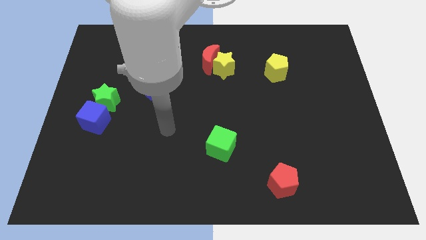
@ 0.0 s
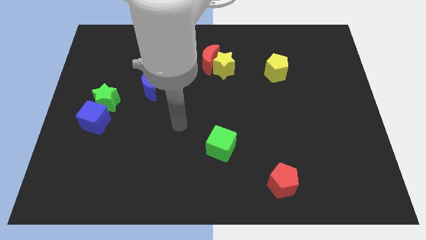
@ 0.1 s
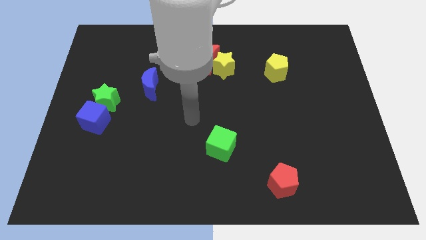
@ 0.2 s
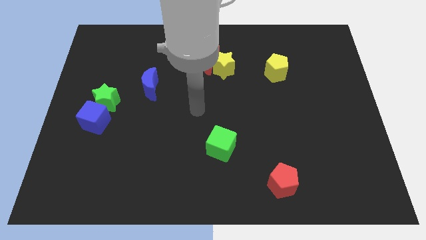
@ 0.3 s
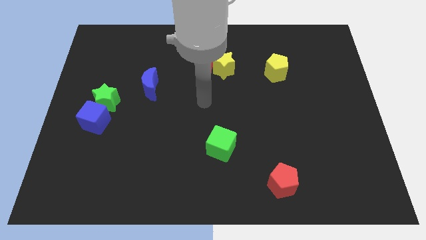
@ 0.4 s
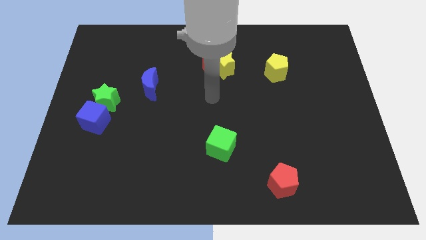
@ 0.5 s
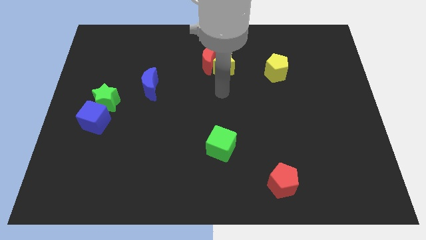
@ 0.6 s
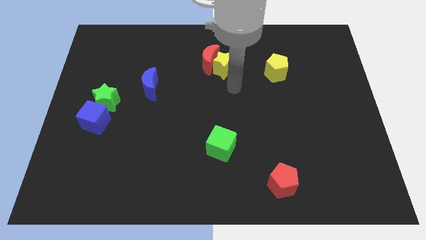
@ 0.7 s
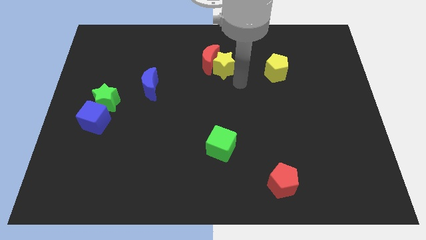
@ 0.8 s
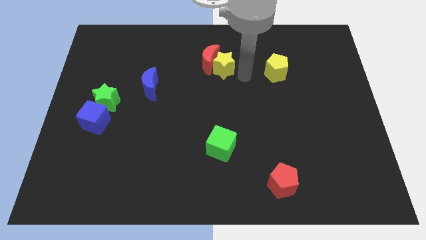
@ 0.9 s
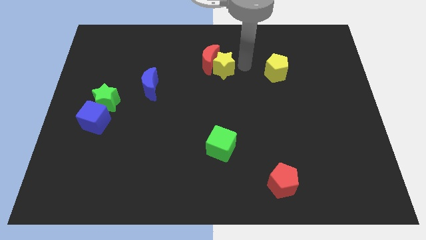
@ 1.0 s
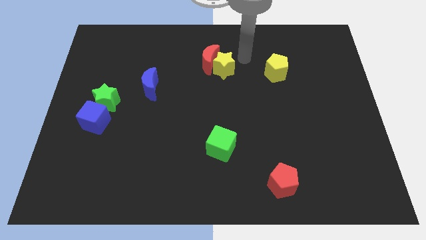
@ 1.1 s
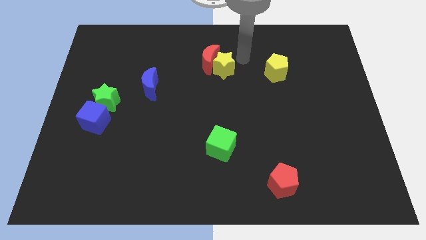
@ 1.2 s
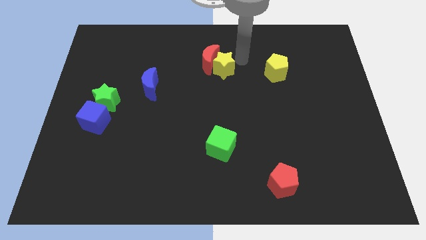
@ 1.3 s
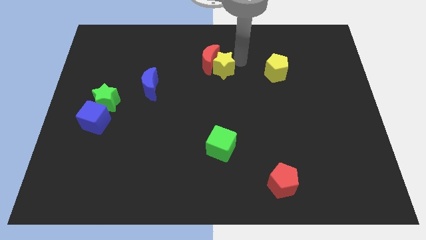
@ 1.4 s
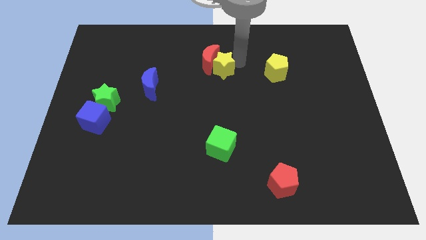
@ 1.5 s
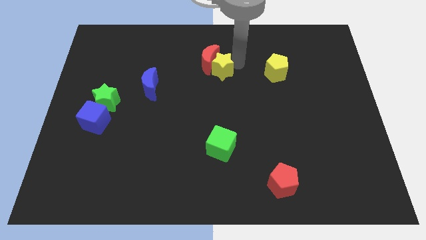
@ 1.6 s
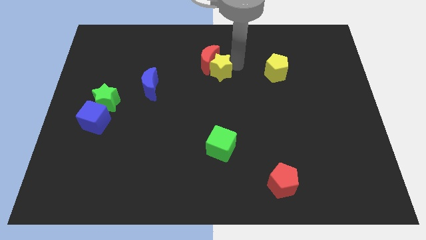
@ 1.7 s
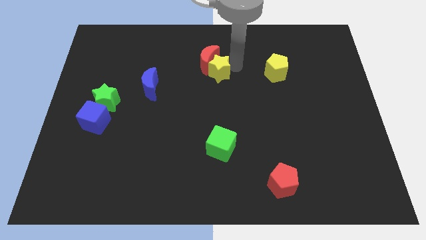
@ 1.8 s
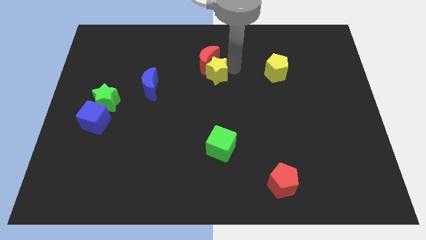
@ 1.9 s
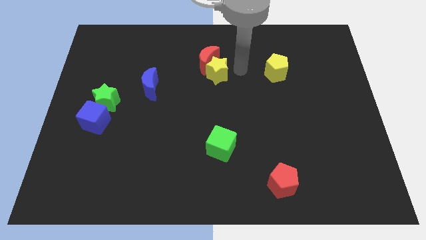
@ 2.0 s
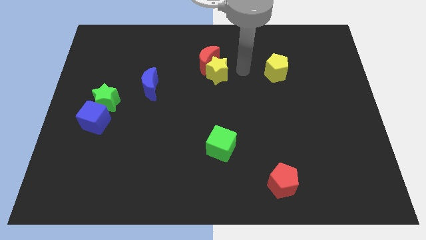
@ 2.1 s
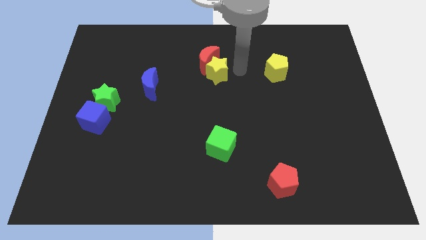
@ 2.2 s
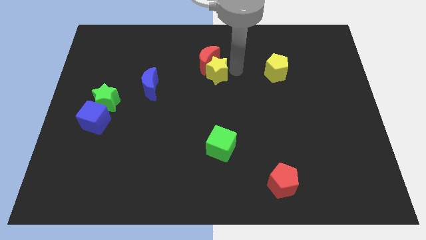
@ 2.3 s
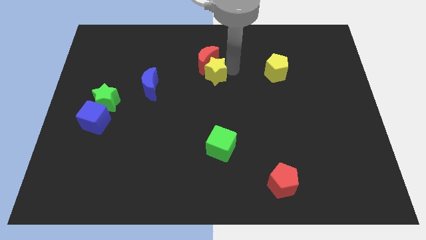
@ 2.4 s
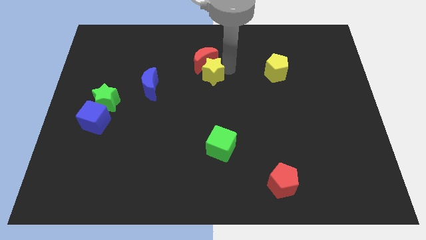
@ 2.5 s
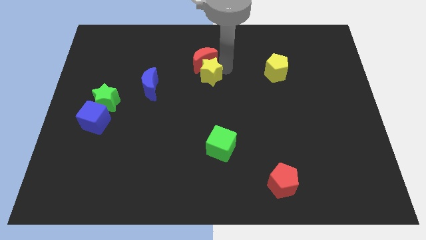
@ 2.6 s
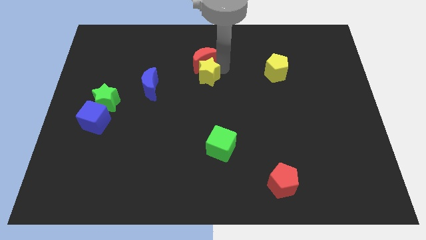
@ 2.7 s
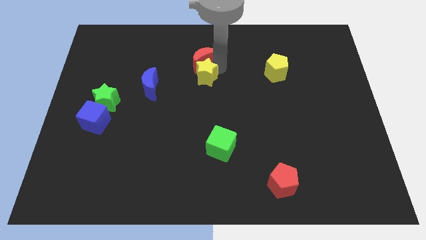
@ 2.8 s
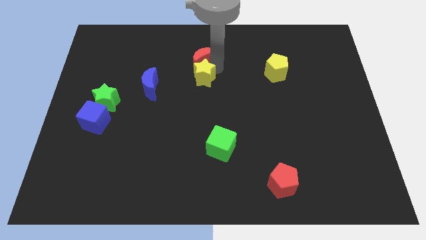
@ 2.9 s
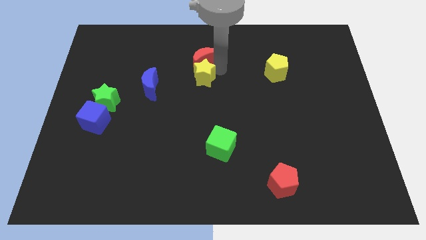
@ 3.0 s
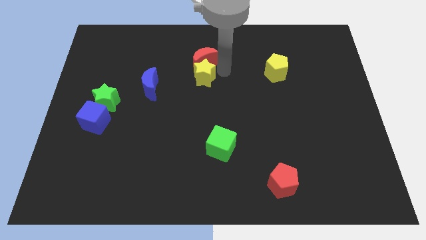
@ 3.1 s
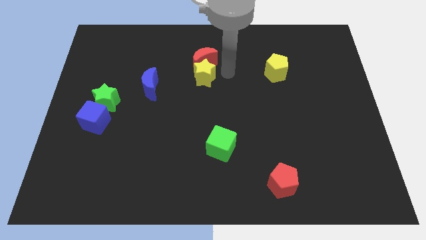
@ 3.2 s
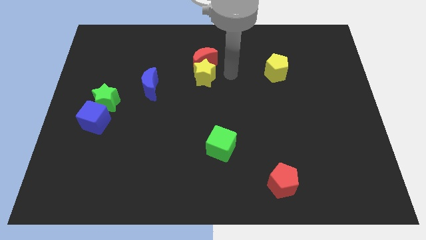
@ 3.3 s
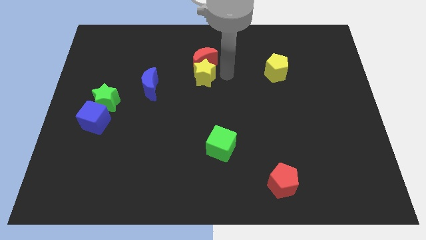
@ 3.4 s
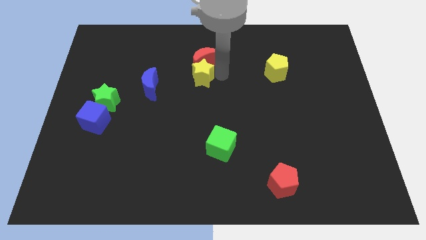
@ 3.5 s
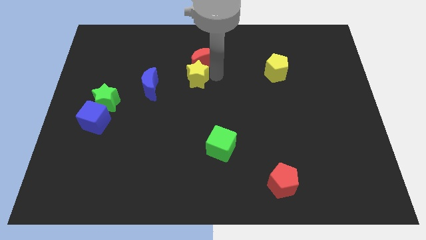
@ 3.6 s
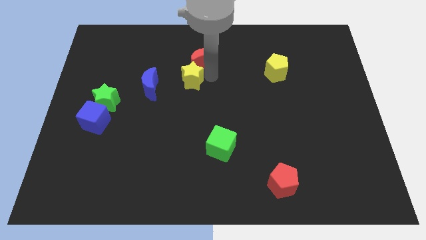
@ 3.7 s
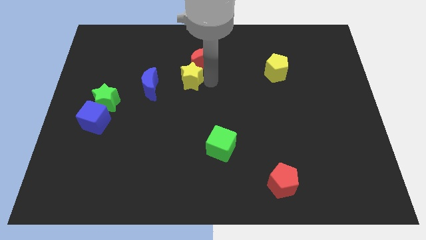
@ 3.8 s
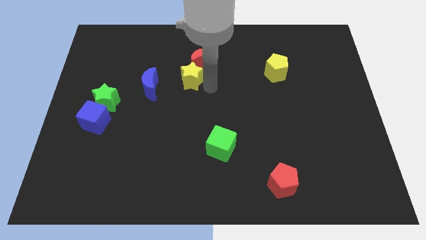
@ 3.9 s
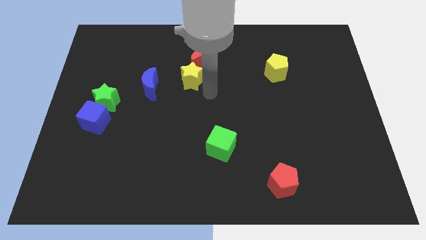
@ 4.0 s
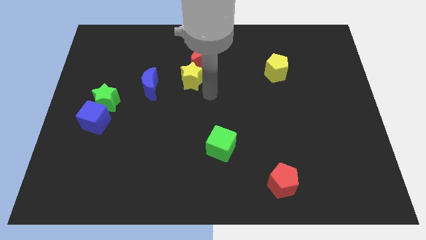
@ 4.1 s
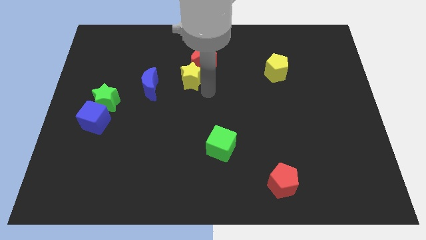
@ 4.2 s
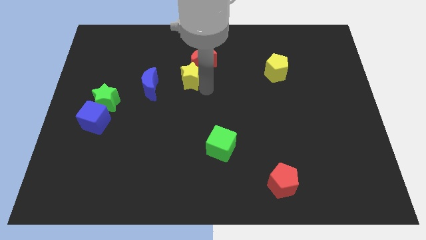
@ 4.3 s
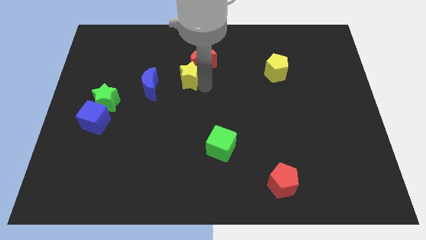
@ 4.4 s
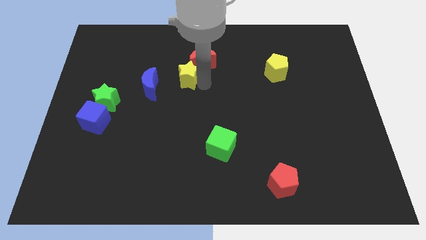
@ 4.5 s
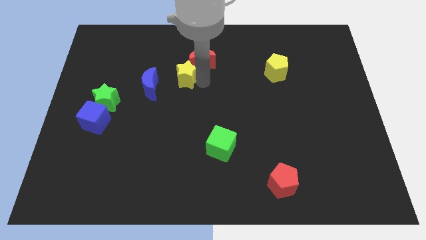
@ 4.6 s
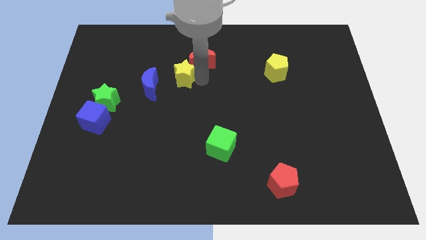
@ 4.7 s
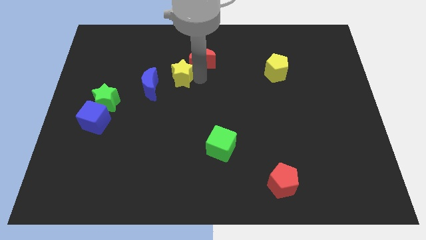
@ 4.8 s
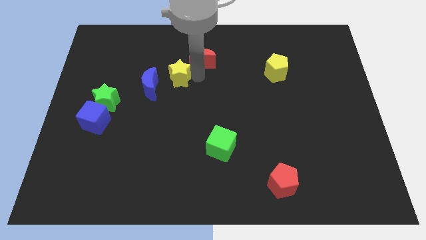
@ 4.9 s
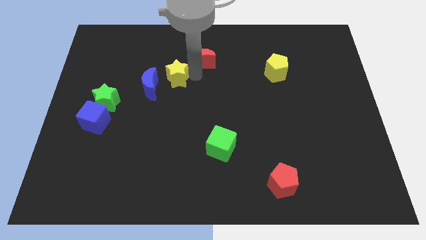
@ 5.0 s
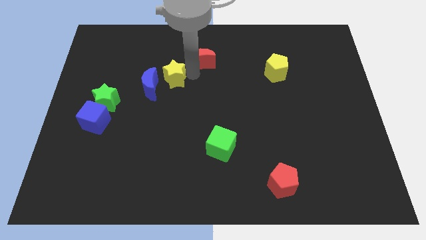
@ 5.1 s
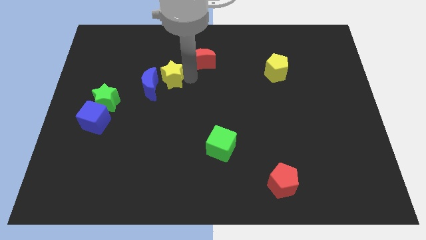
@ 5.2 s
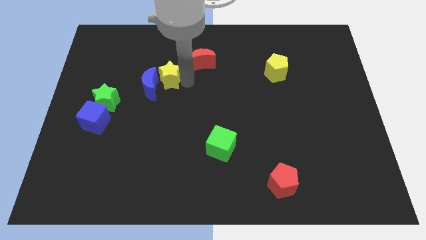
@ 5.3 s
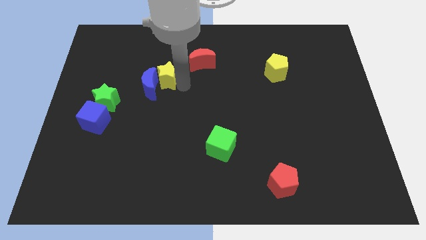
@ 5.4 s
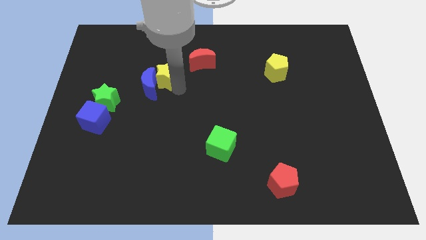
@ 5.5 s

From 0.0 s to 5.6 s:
slide the yellow star above the blue moon

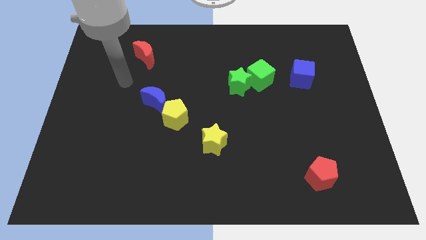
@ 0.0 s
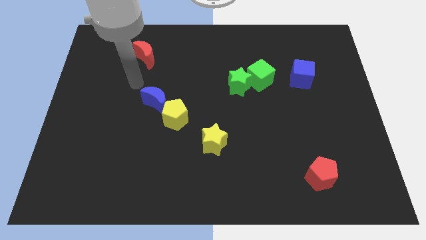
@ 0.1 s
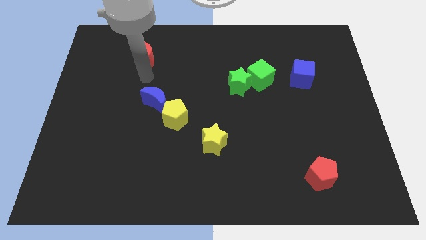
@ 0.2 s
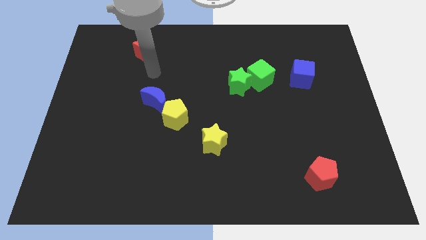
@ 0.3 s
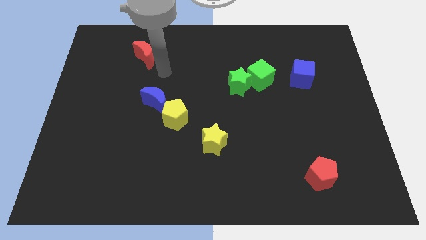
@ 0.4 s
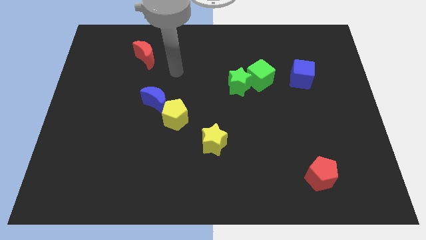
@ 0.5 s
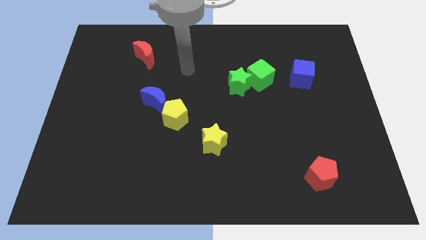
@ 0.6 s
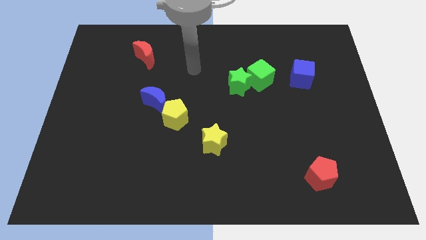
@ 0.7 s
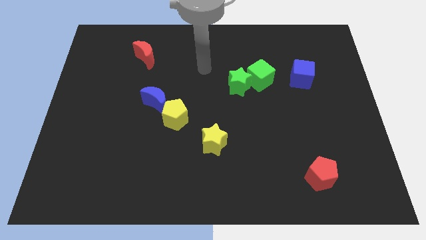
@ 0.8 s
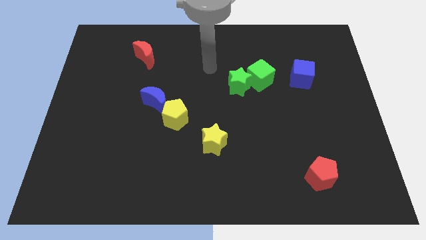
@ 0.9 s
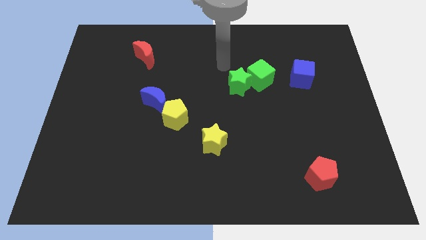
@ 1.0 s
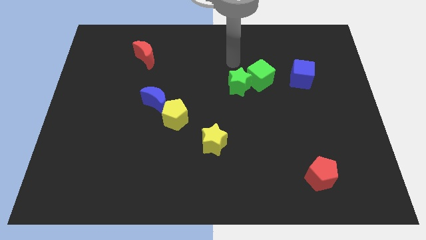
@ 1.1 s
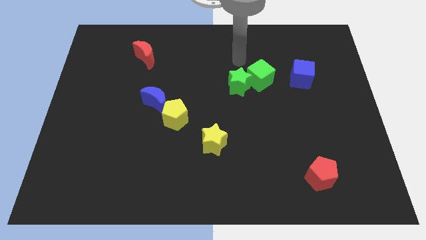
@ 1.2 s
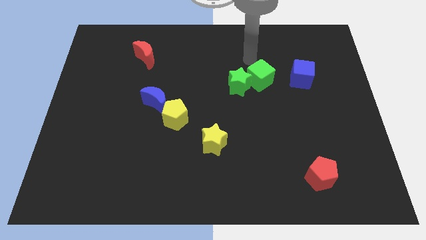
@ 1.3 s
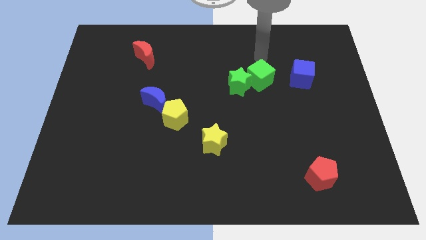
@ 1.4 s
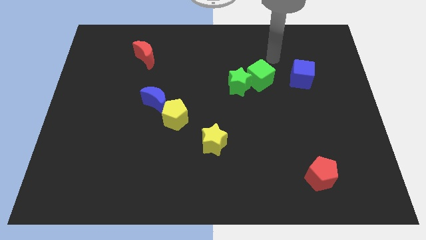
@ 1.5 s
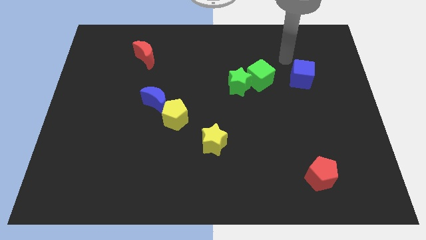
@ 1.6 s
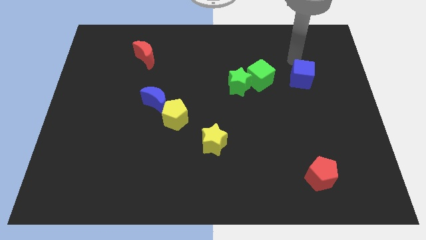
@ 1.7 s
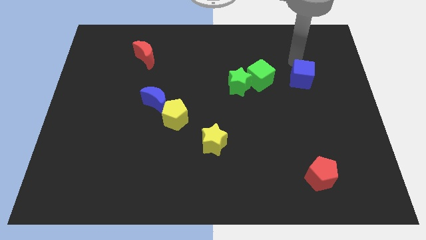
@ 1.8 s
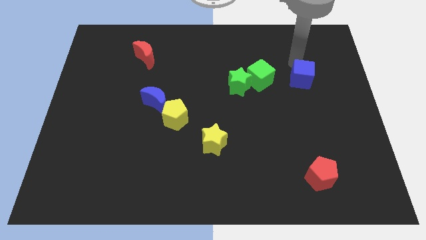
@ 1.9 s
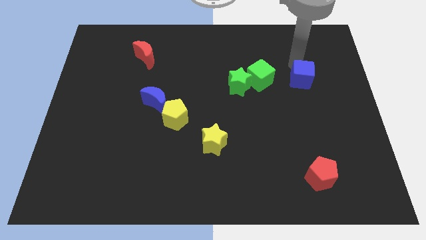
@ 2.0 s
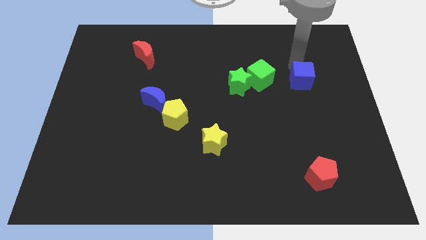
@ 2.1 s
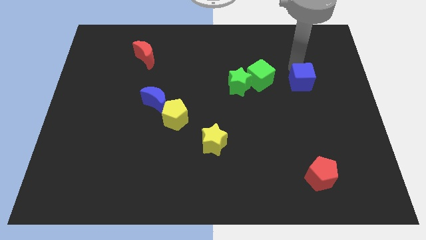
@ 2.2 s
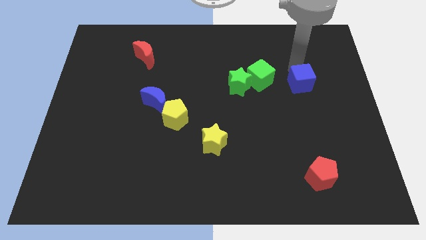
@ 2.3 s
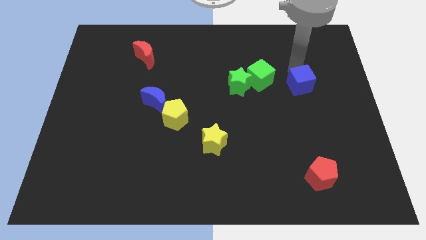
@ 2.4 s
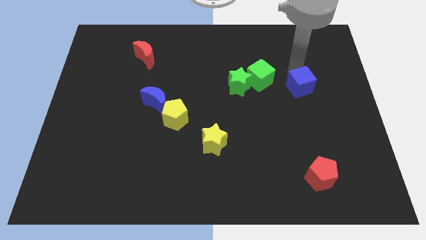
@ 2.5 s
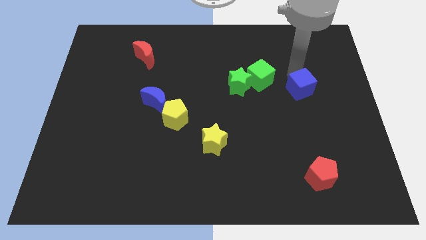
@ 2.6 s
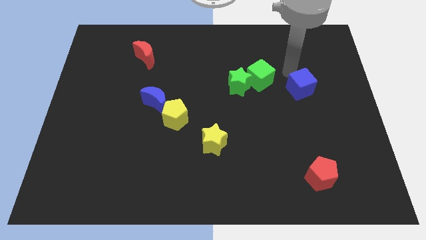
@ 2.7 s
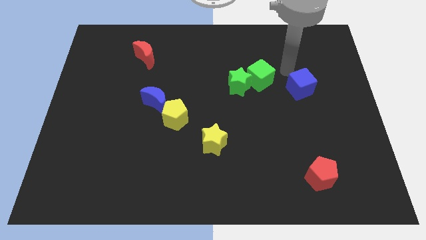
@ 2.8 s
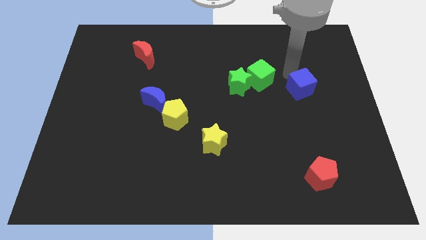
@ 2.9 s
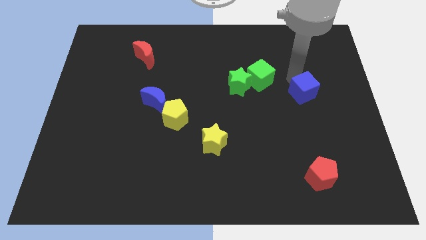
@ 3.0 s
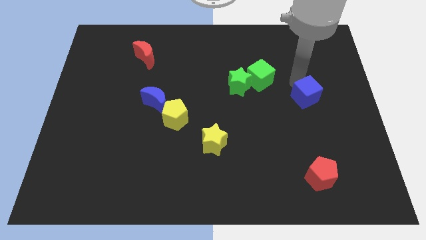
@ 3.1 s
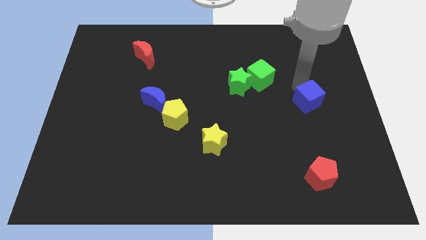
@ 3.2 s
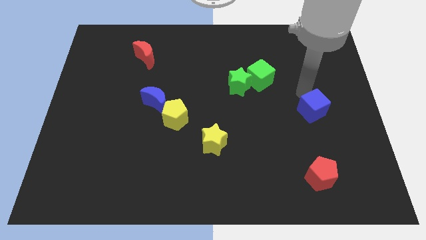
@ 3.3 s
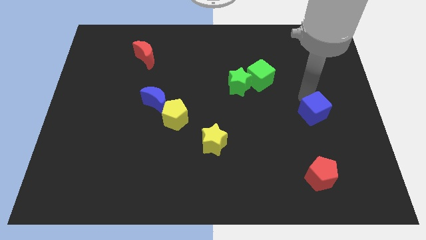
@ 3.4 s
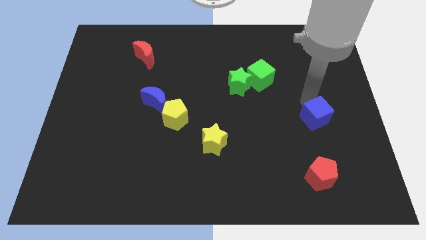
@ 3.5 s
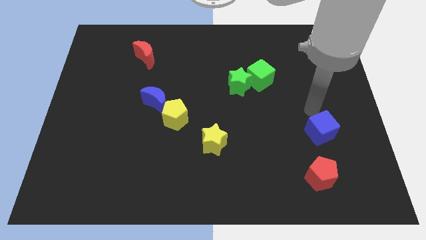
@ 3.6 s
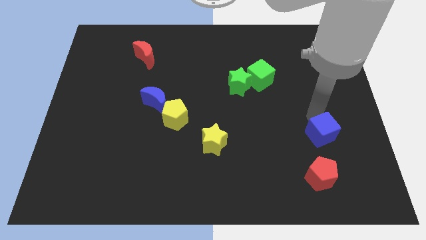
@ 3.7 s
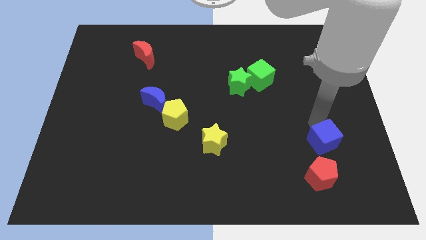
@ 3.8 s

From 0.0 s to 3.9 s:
move the blue cube to the top right side of the red pentagon
